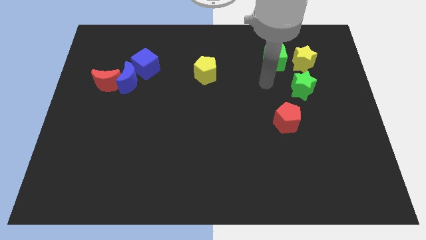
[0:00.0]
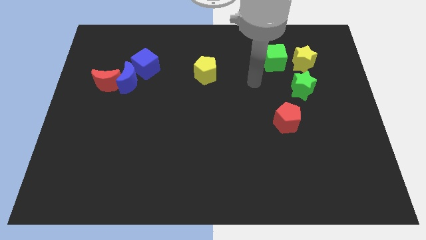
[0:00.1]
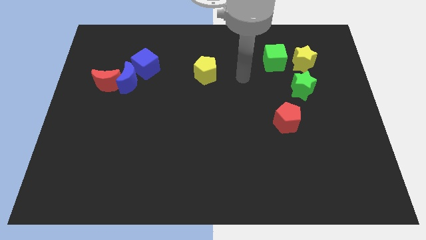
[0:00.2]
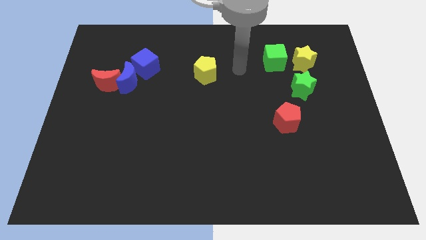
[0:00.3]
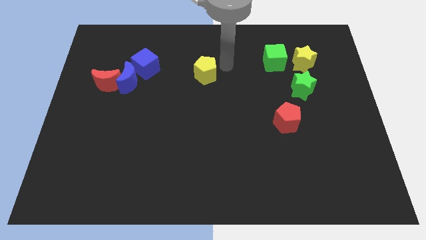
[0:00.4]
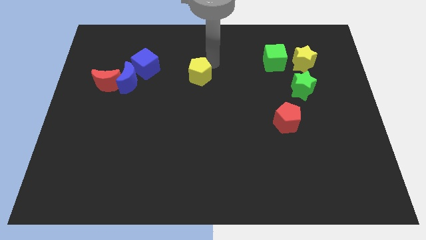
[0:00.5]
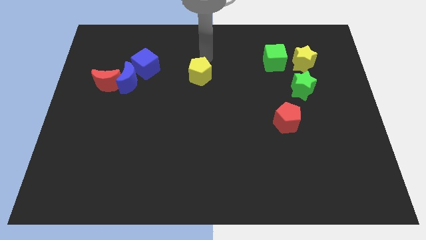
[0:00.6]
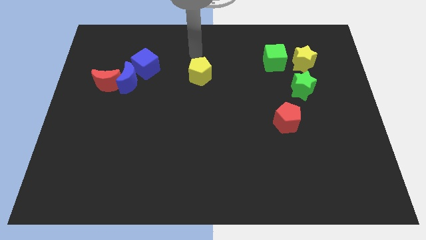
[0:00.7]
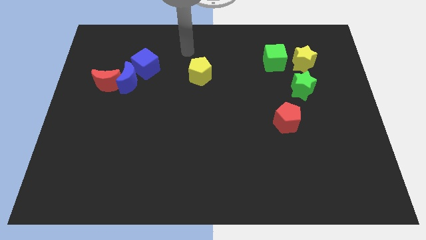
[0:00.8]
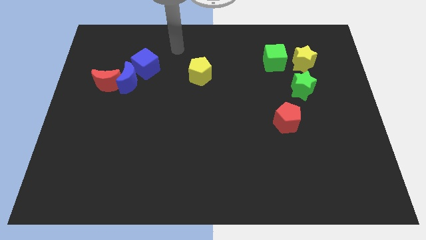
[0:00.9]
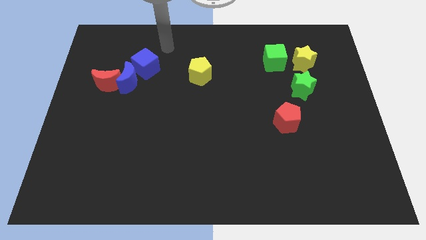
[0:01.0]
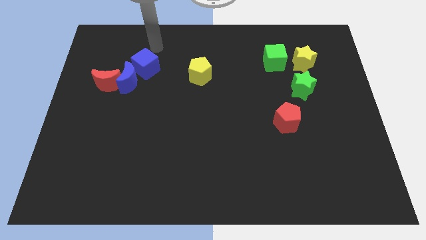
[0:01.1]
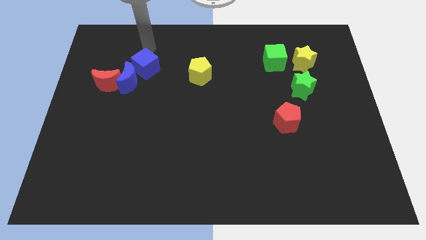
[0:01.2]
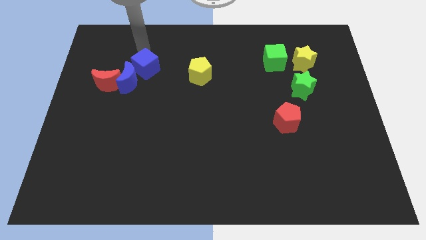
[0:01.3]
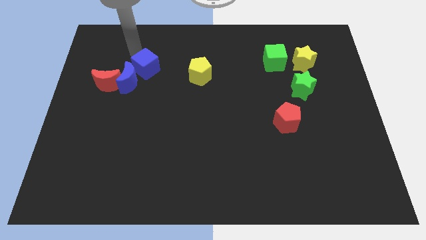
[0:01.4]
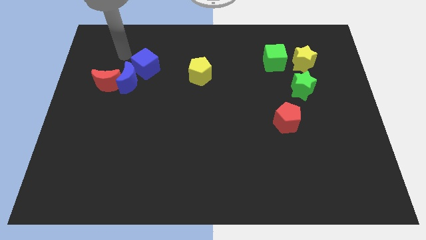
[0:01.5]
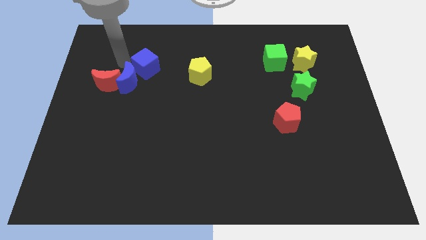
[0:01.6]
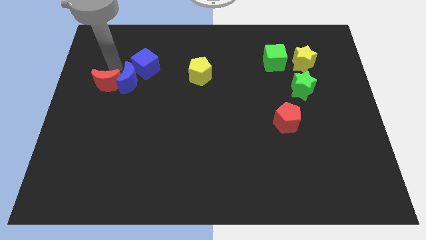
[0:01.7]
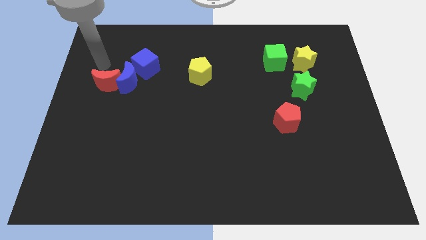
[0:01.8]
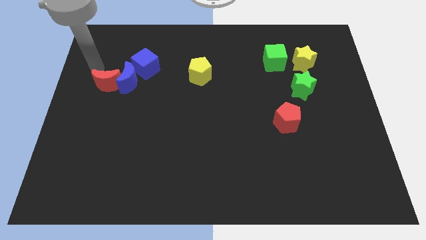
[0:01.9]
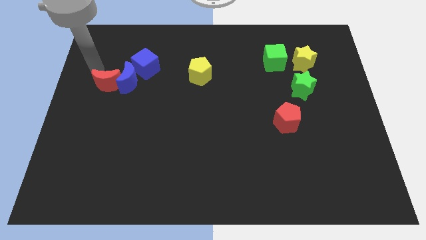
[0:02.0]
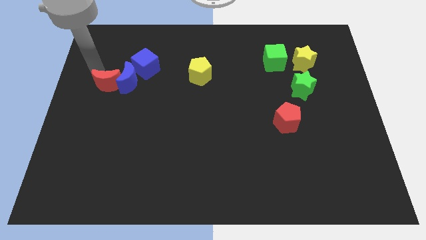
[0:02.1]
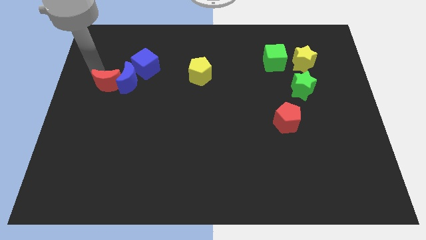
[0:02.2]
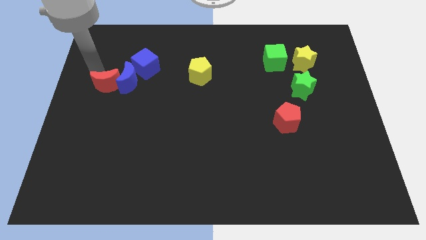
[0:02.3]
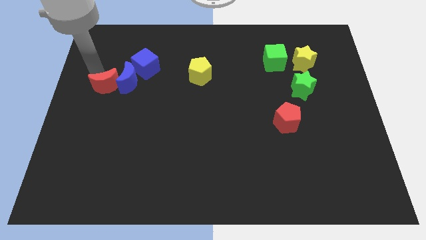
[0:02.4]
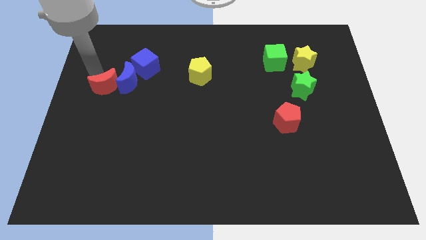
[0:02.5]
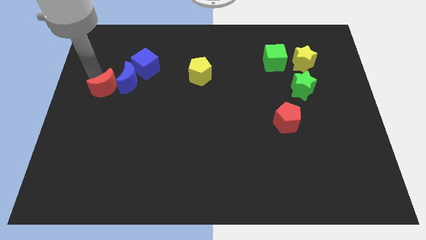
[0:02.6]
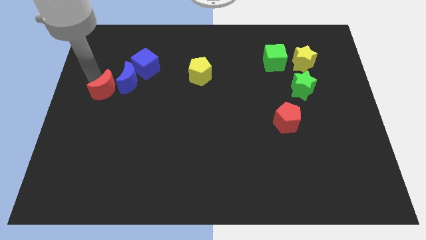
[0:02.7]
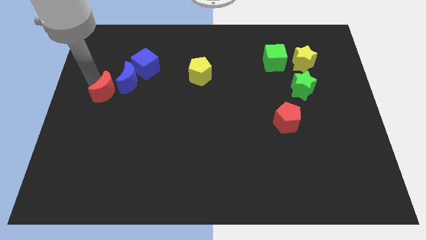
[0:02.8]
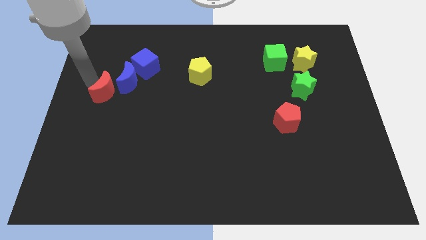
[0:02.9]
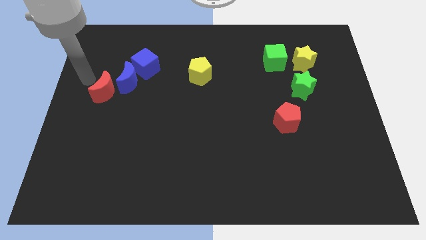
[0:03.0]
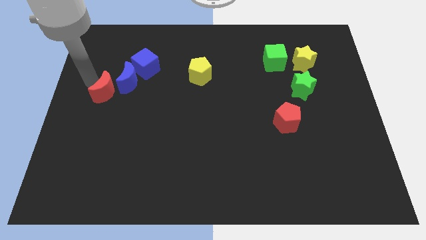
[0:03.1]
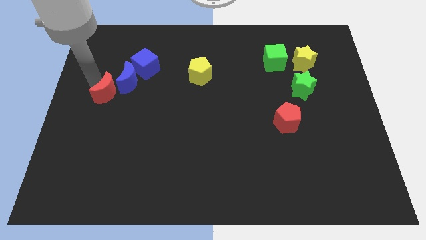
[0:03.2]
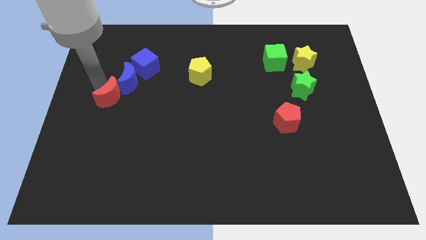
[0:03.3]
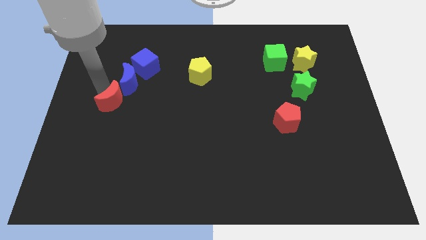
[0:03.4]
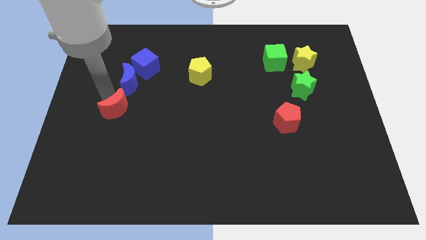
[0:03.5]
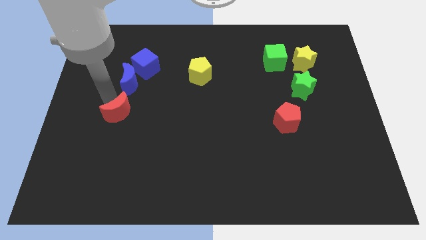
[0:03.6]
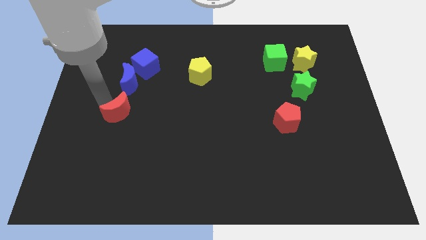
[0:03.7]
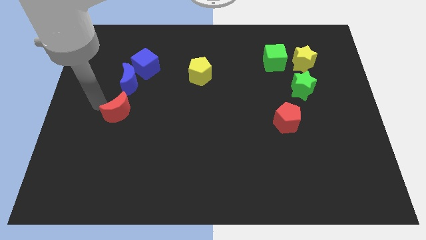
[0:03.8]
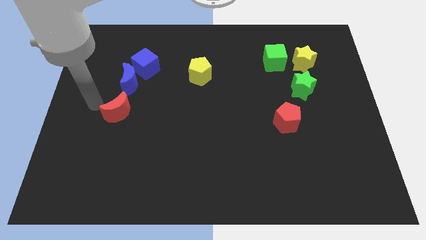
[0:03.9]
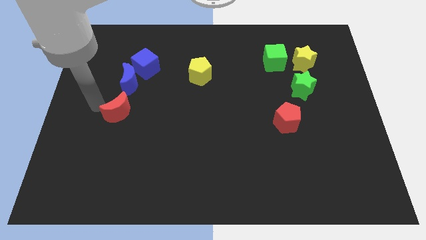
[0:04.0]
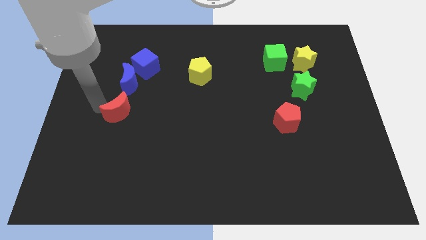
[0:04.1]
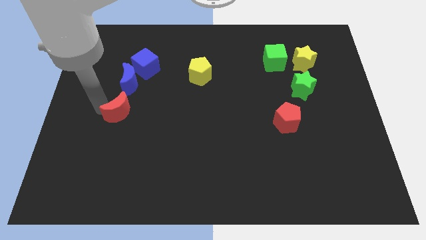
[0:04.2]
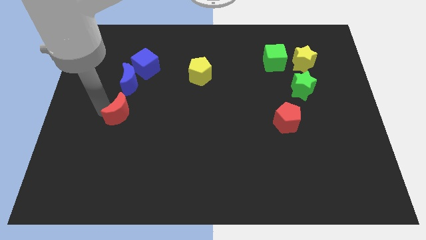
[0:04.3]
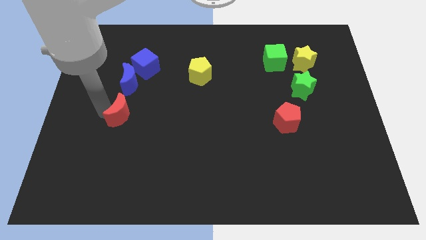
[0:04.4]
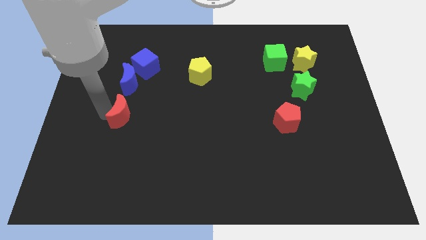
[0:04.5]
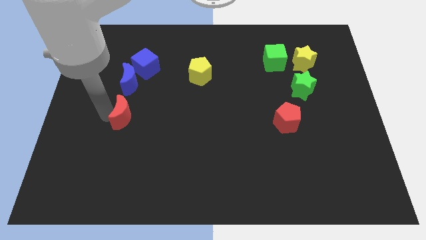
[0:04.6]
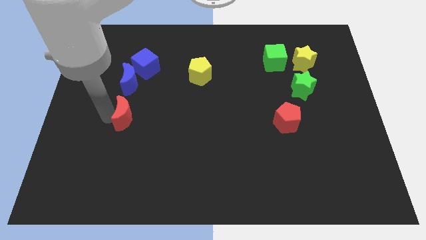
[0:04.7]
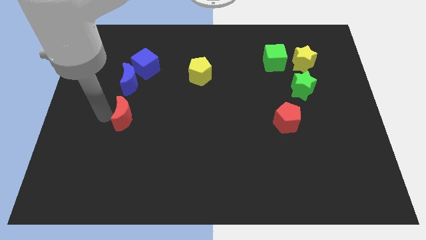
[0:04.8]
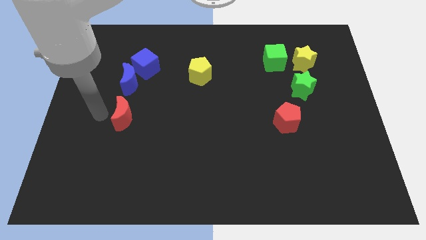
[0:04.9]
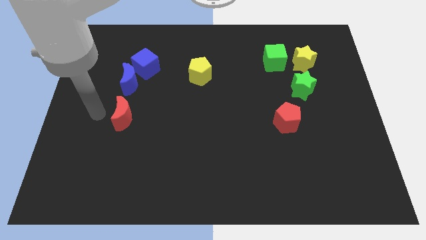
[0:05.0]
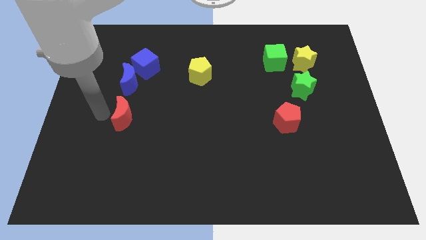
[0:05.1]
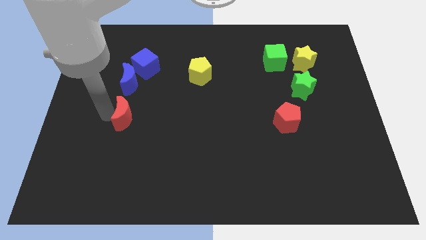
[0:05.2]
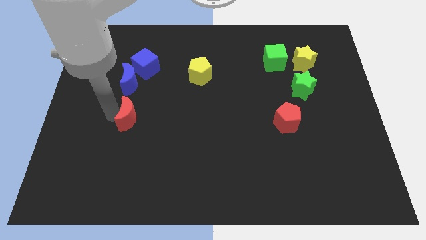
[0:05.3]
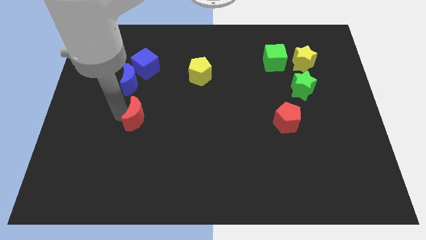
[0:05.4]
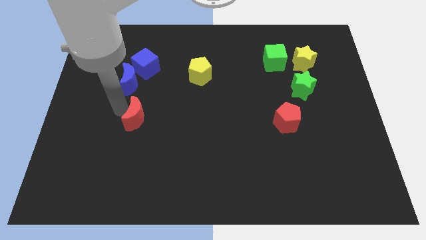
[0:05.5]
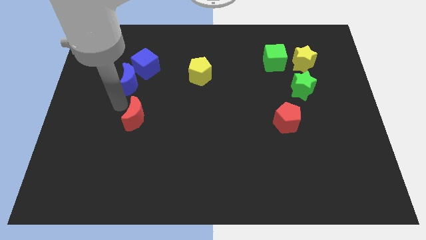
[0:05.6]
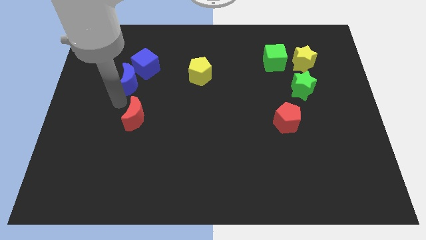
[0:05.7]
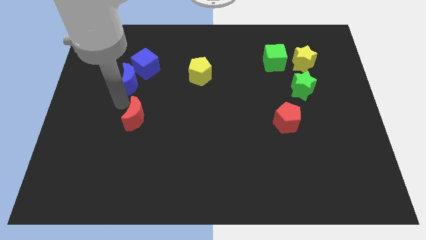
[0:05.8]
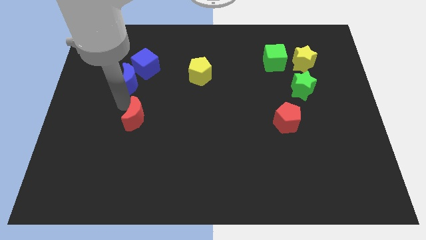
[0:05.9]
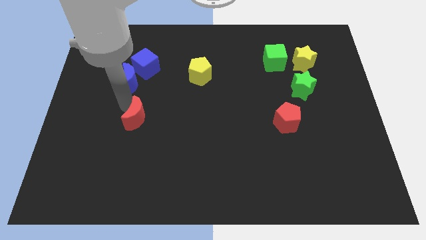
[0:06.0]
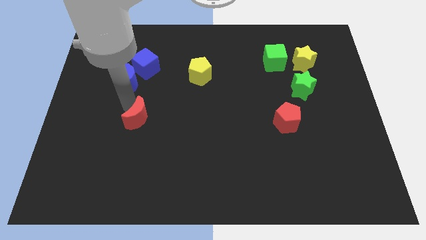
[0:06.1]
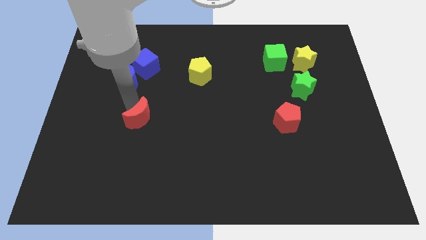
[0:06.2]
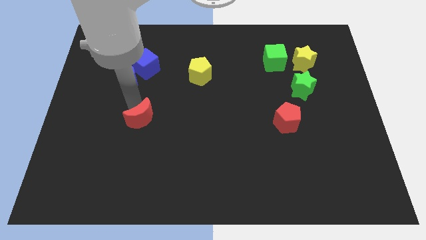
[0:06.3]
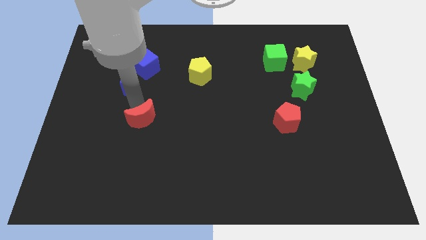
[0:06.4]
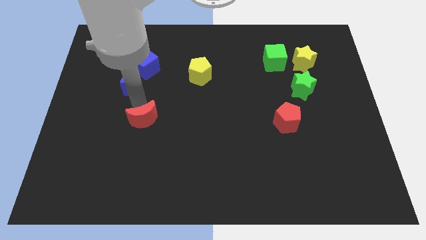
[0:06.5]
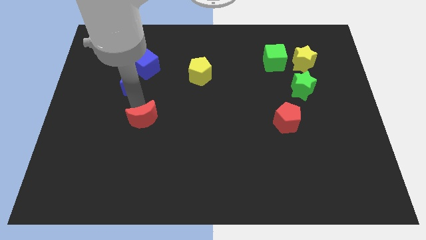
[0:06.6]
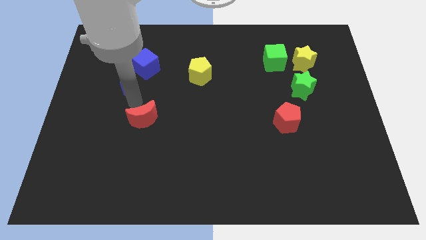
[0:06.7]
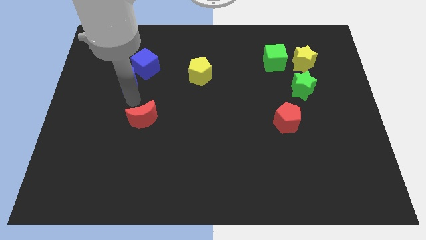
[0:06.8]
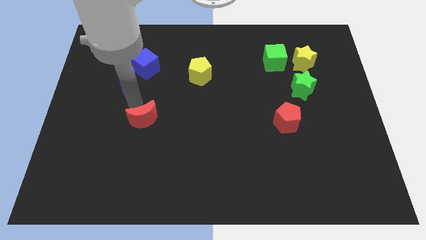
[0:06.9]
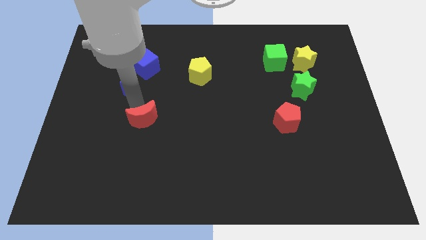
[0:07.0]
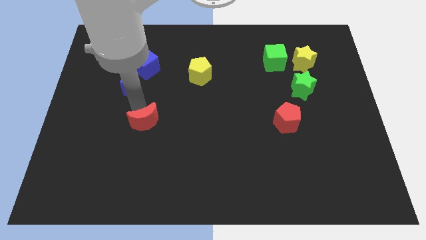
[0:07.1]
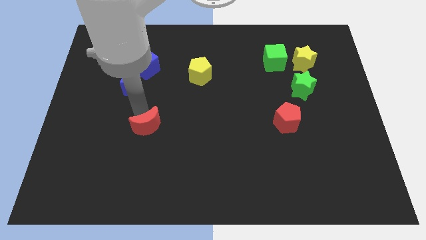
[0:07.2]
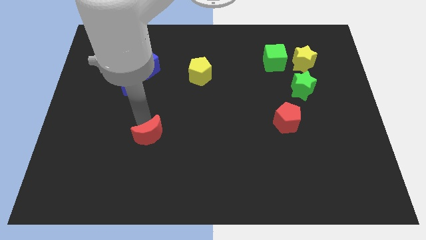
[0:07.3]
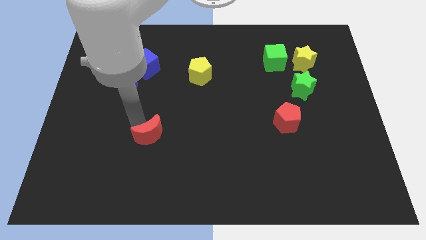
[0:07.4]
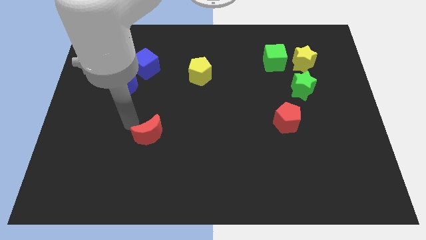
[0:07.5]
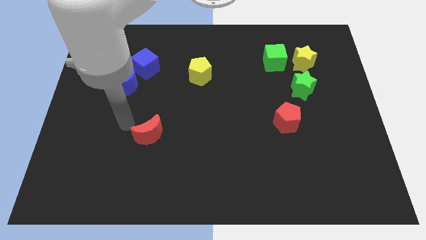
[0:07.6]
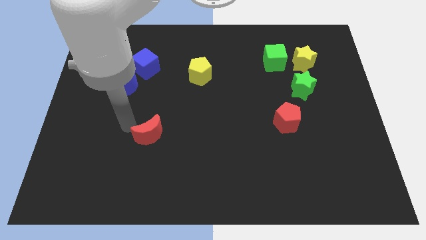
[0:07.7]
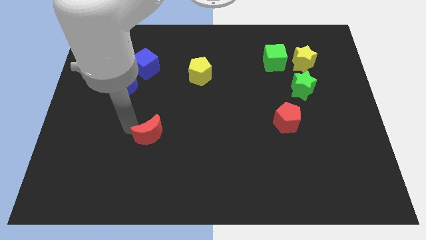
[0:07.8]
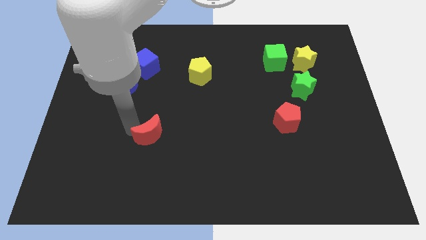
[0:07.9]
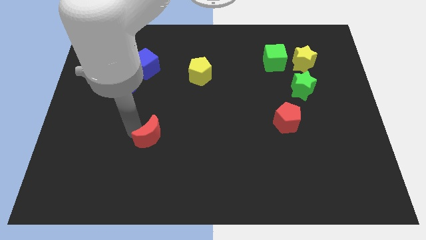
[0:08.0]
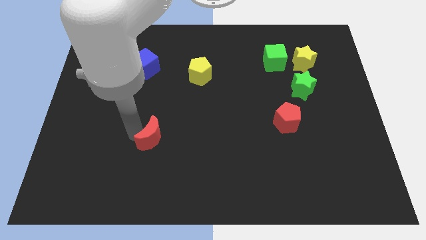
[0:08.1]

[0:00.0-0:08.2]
slide the red moon downwards and to the right diagonally

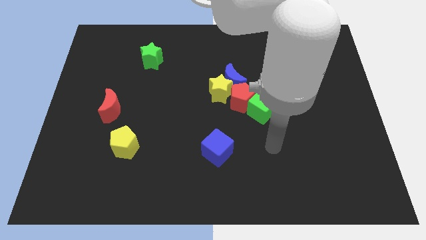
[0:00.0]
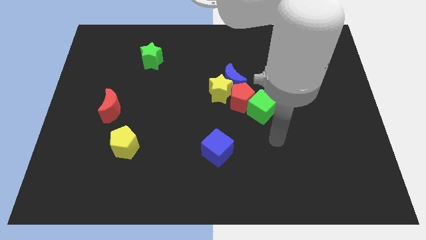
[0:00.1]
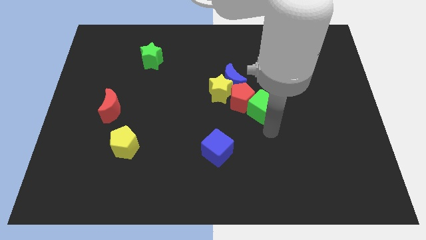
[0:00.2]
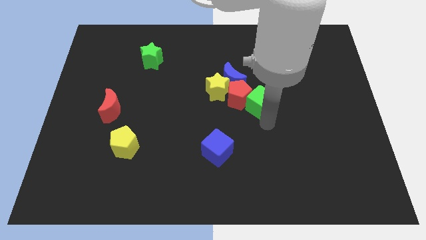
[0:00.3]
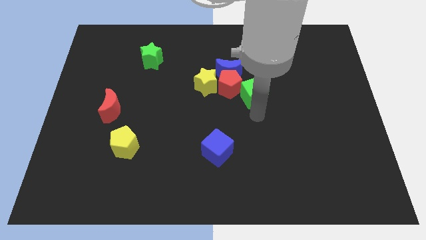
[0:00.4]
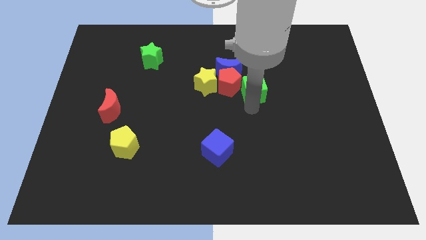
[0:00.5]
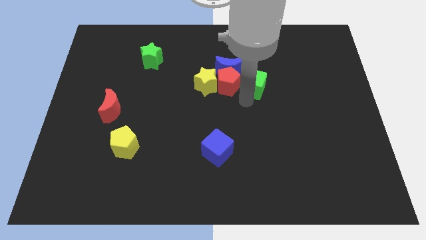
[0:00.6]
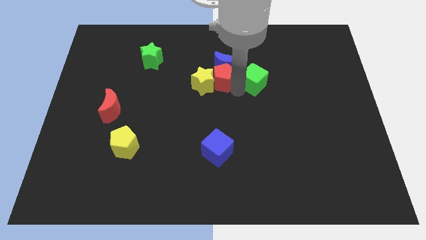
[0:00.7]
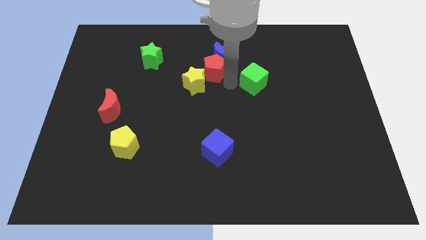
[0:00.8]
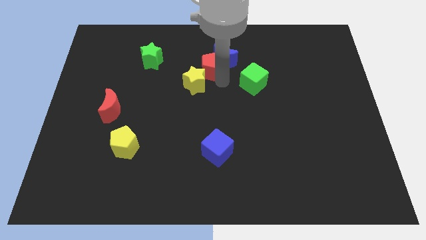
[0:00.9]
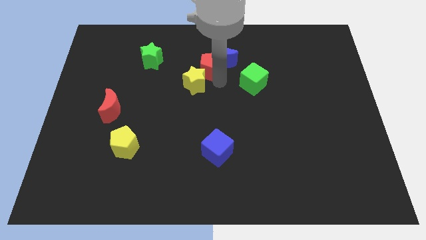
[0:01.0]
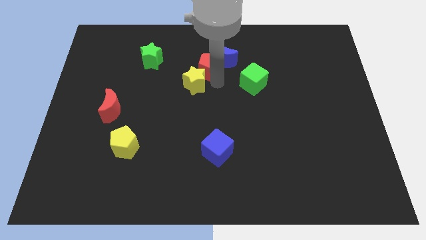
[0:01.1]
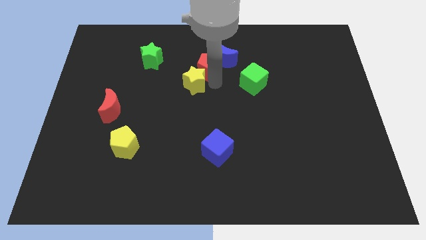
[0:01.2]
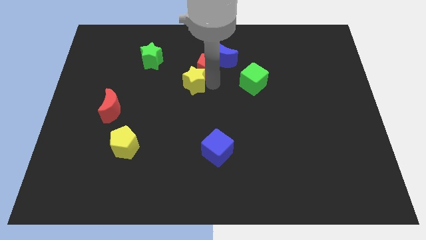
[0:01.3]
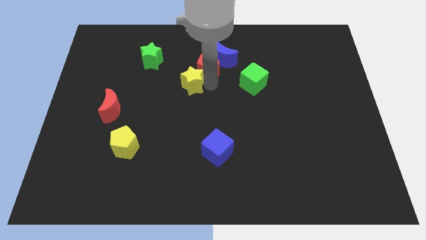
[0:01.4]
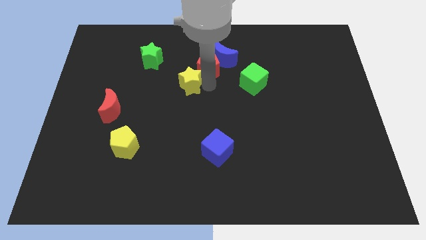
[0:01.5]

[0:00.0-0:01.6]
move the yellow star a little bit left
